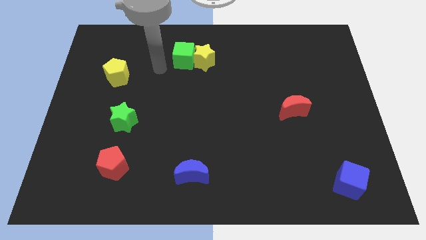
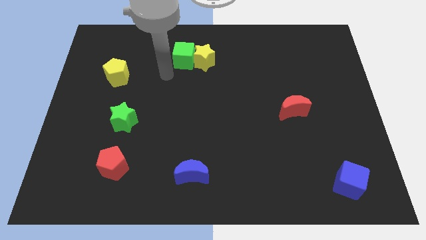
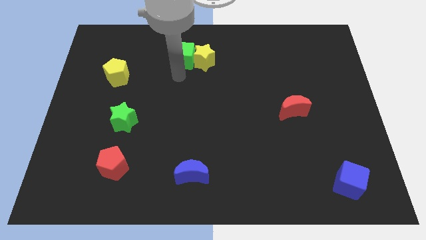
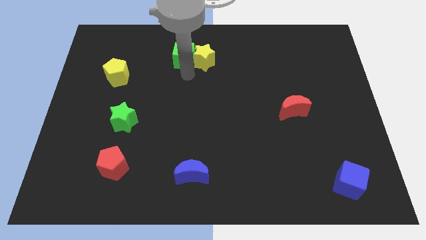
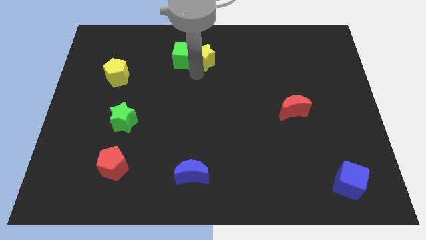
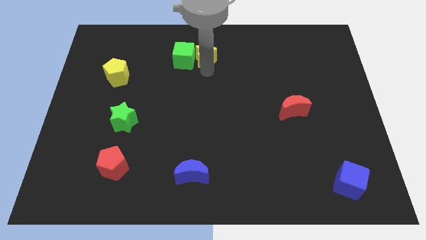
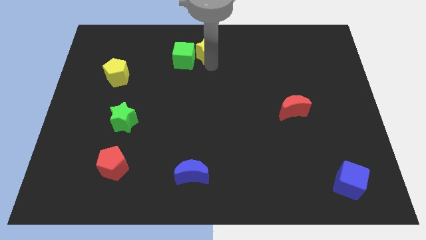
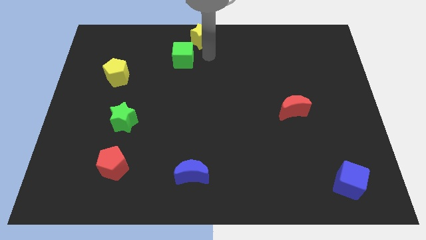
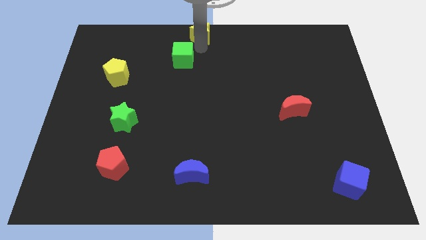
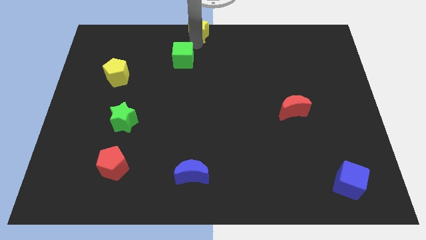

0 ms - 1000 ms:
separate the green cube from the yellow star

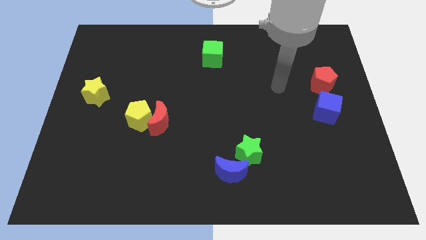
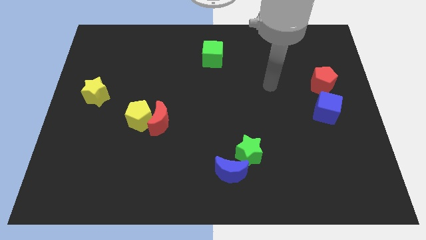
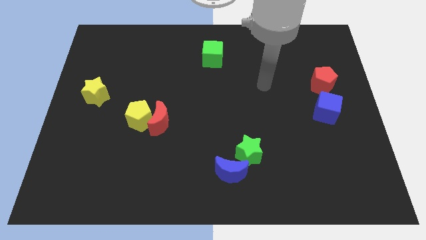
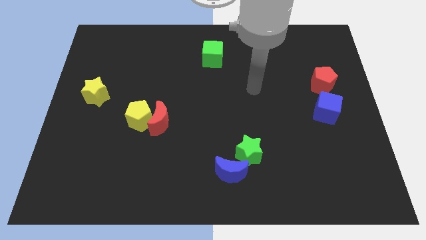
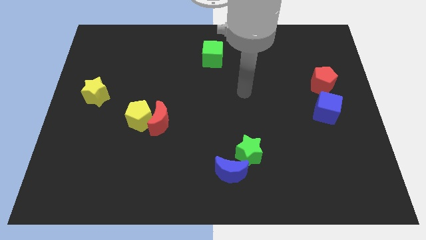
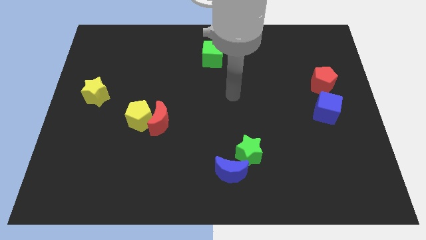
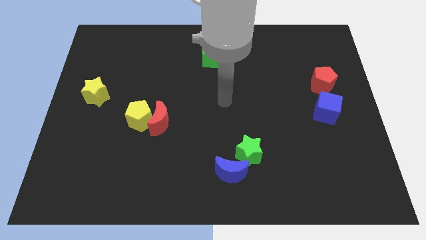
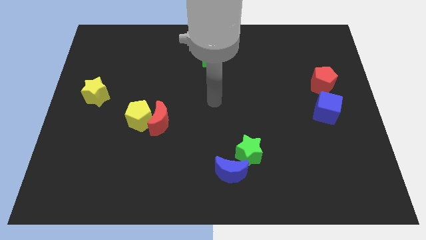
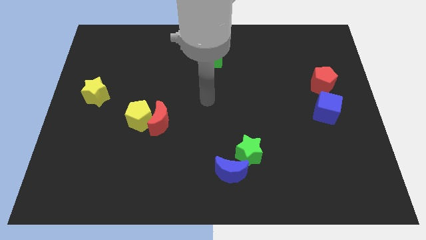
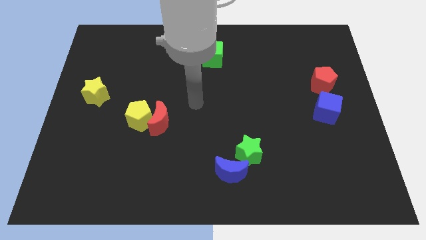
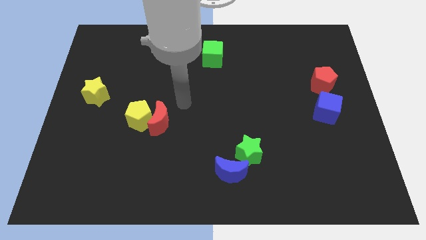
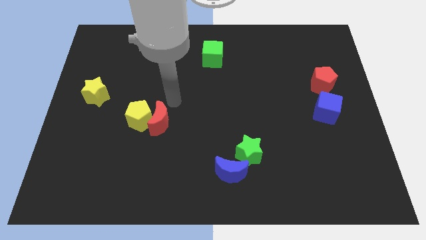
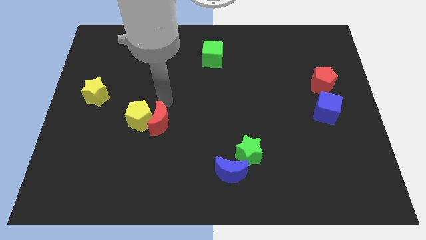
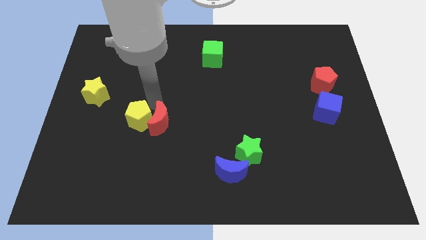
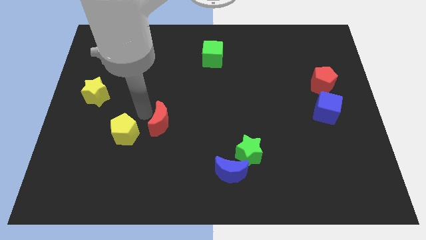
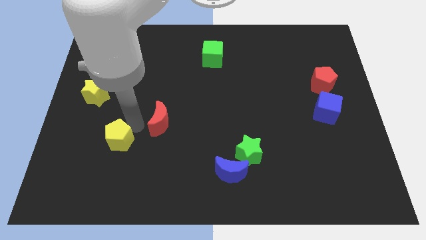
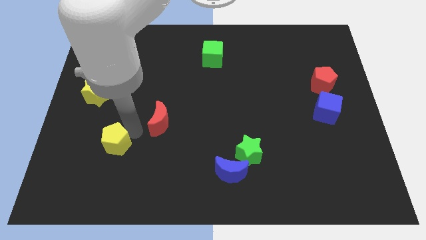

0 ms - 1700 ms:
separate the red moon from the yellow pentagon

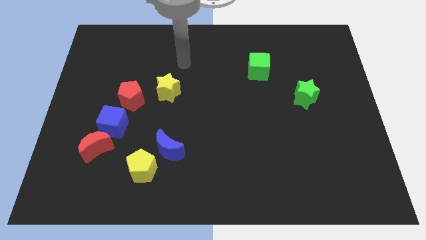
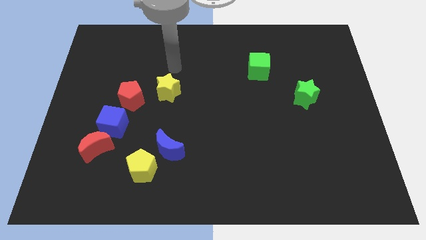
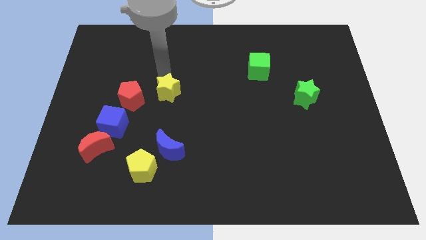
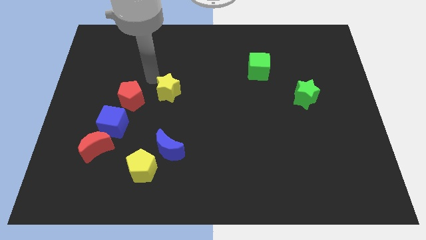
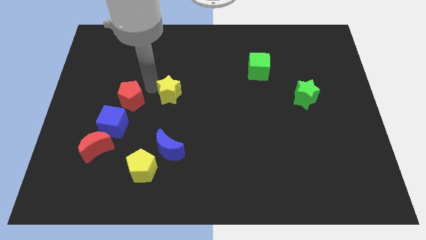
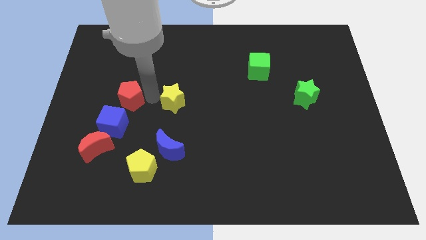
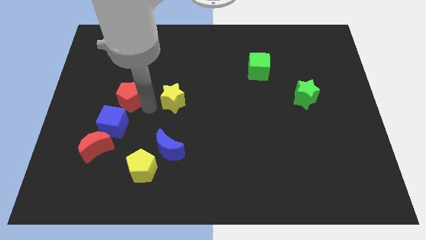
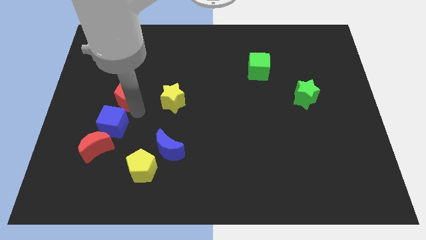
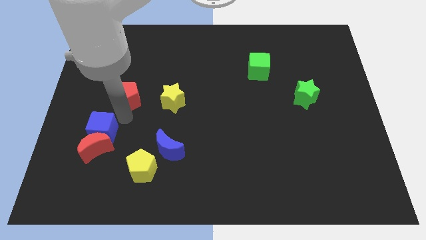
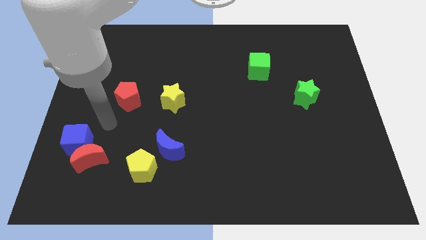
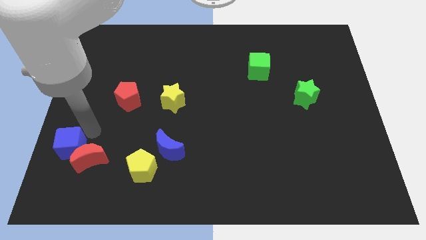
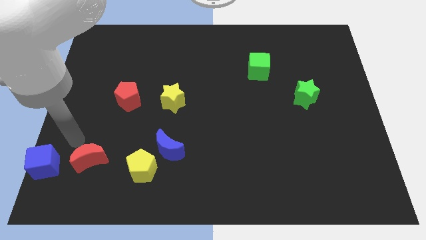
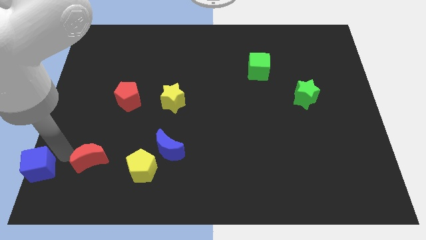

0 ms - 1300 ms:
separate the red moon from the blue cube

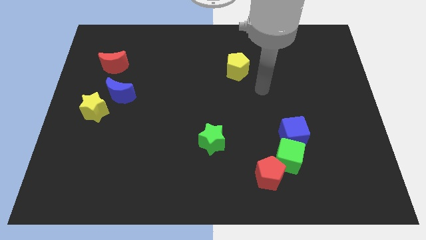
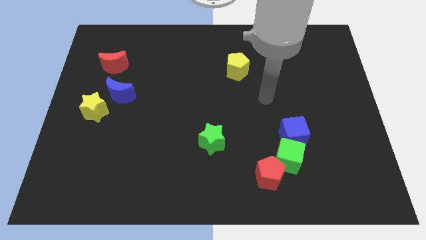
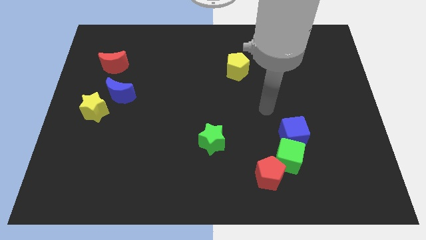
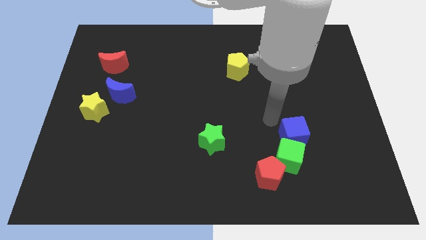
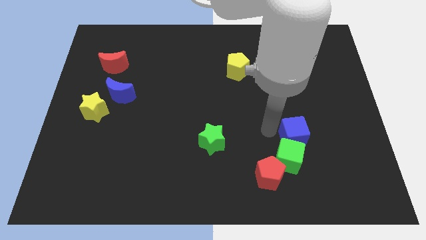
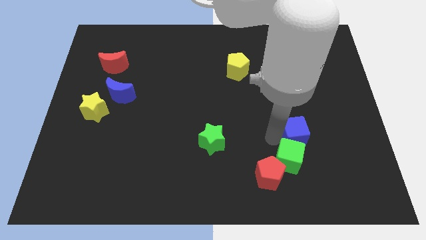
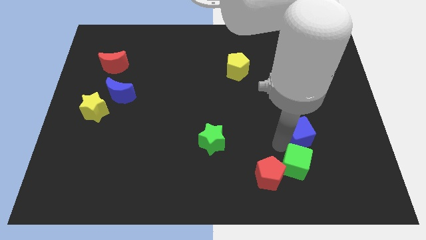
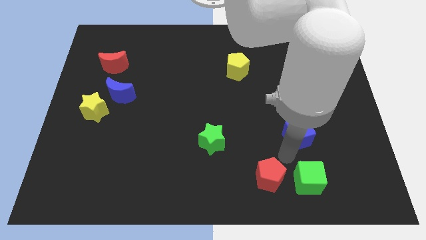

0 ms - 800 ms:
separate the blue cube from the green cube

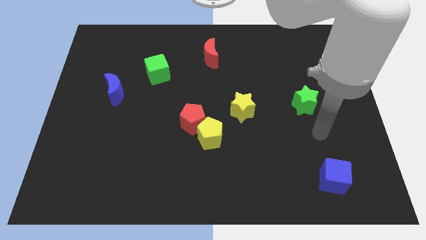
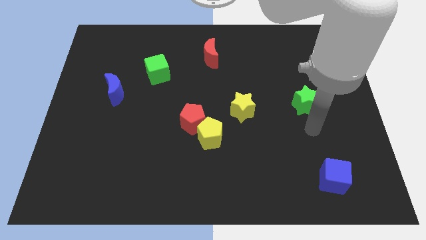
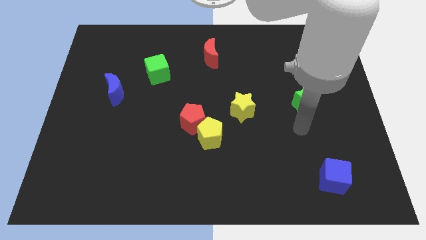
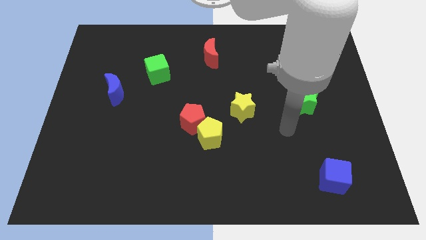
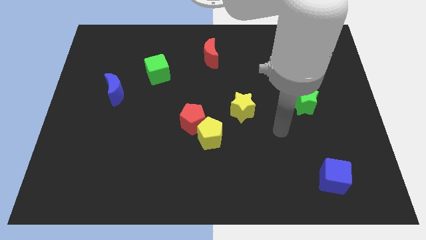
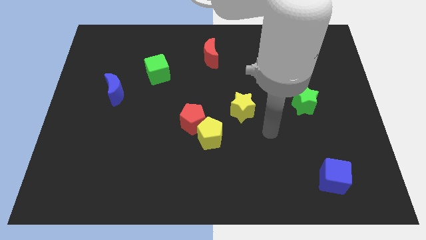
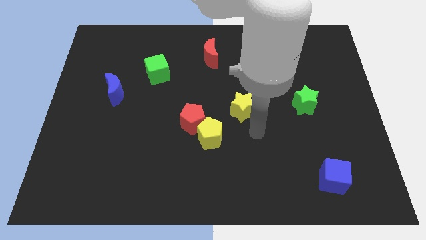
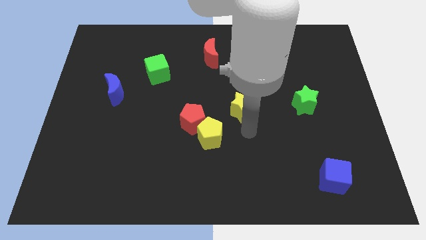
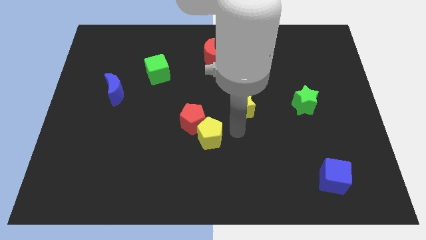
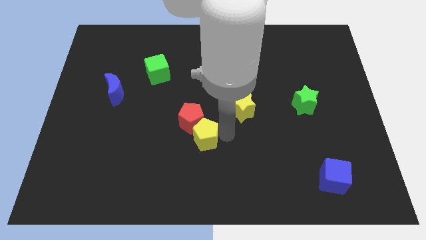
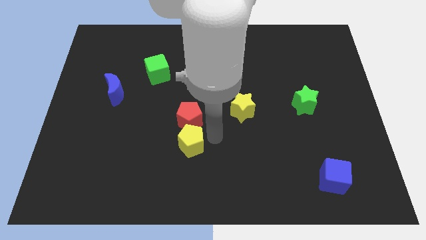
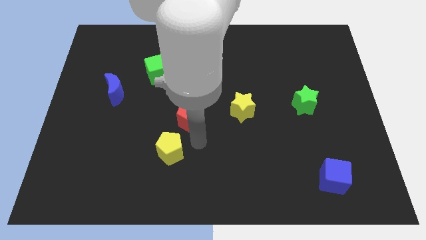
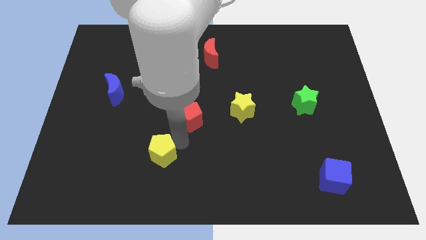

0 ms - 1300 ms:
pull the red pentagon apart from the yellow pentagon

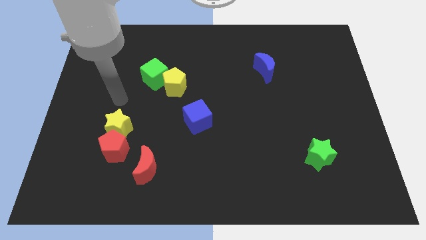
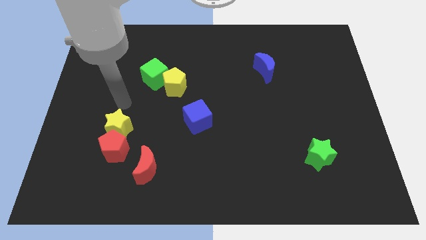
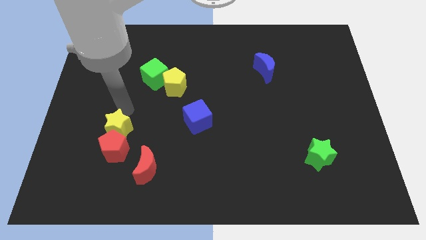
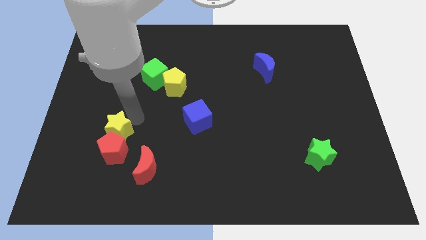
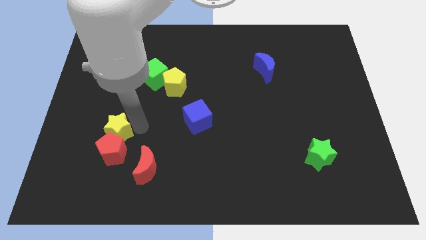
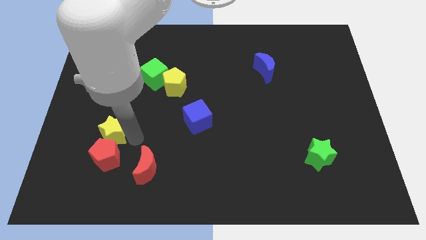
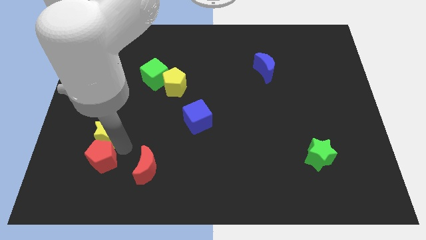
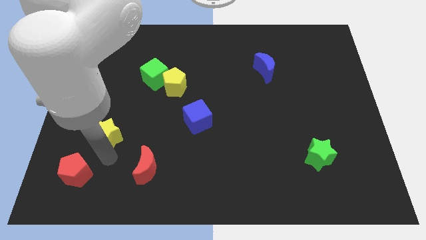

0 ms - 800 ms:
move the yellow star away from the red pentagon

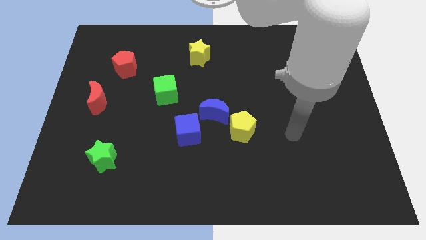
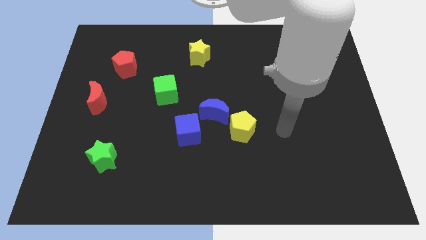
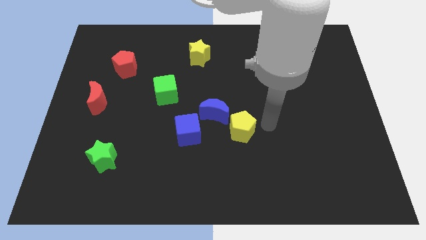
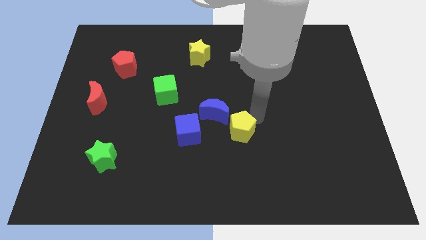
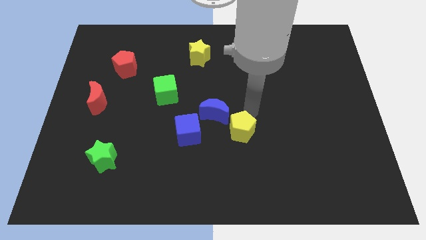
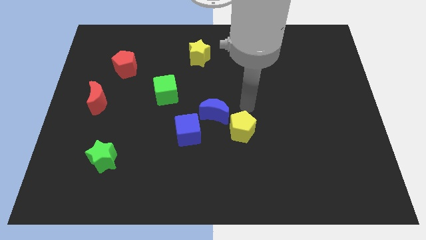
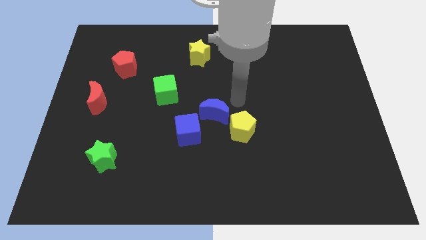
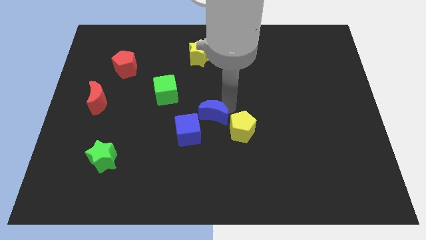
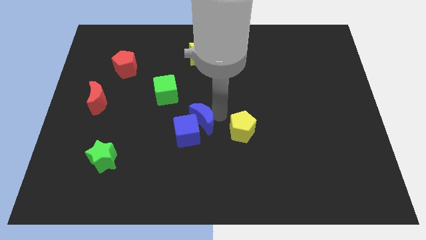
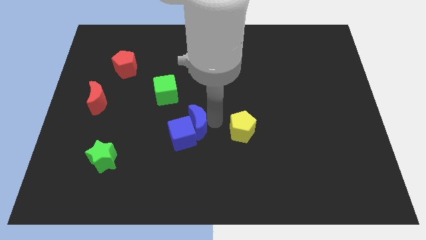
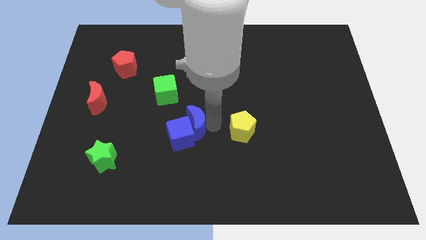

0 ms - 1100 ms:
separate the yellow pentagon from the blue moon

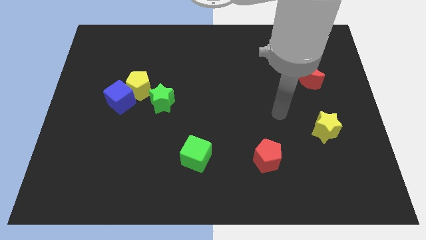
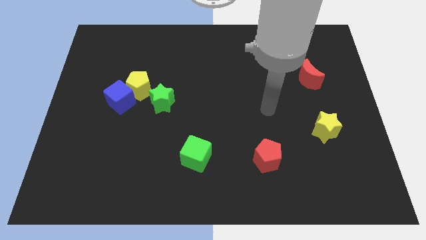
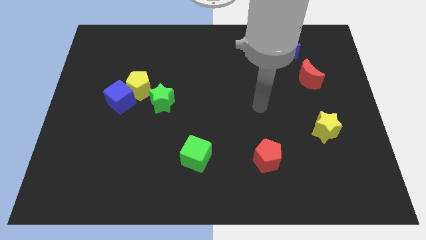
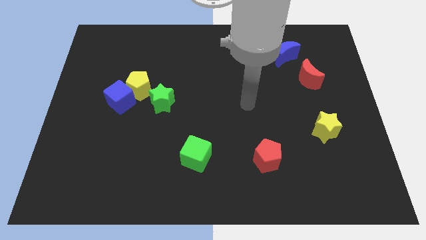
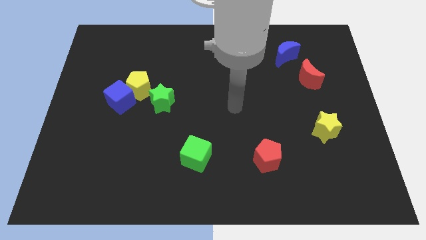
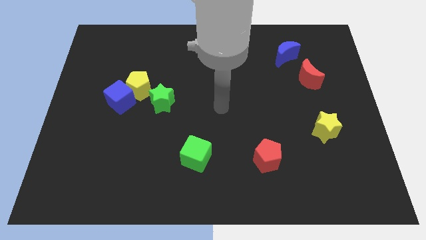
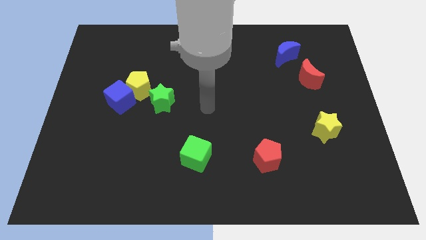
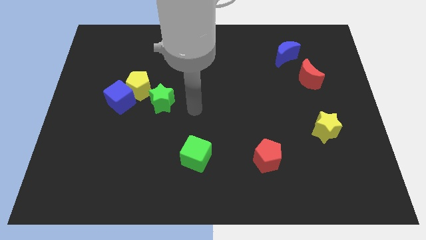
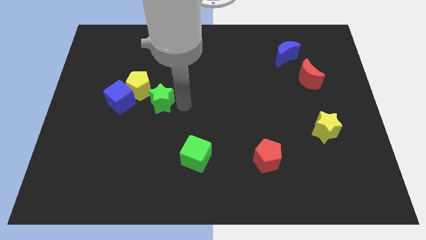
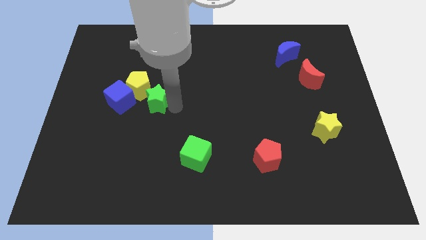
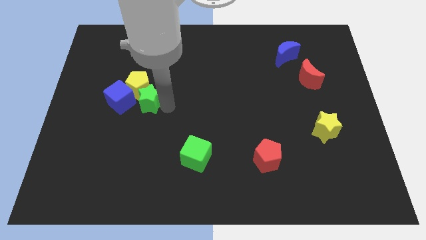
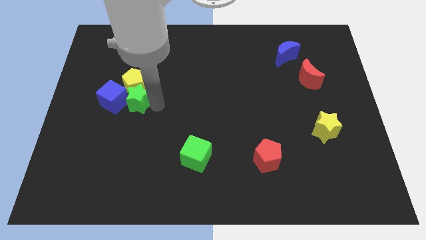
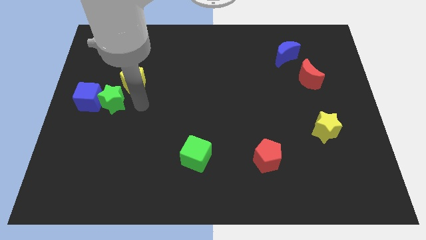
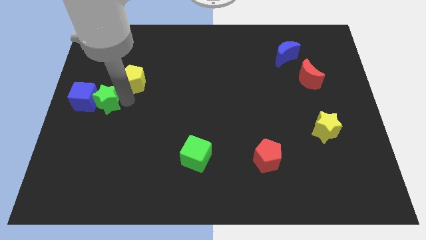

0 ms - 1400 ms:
separate the yellow pentagon from the blue cube and green star
